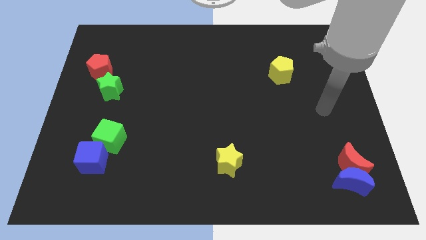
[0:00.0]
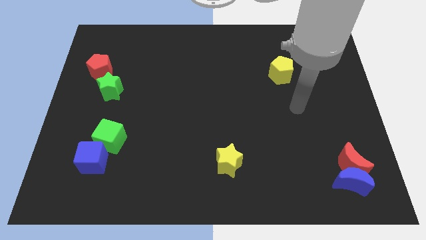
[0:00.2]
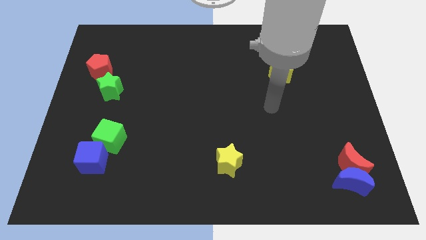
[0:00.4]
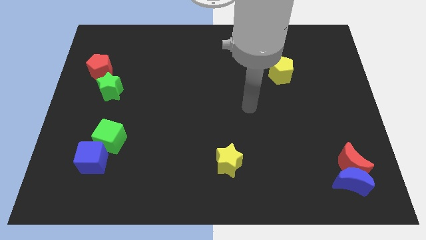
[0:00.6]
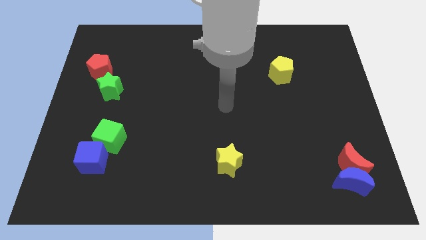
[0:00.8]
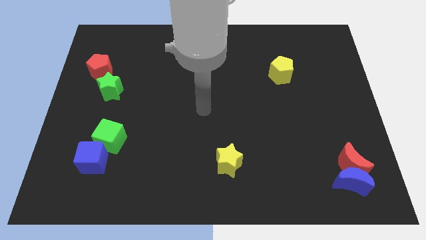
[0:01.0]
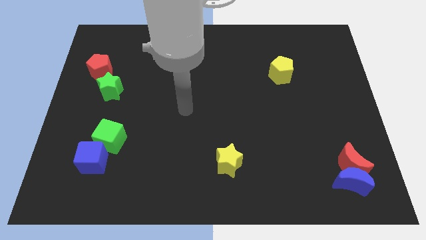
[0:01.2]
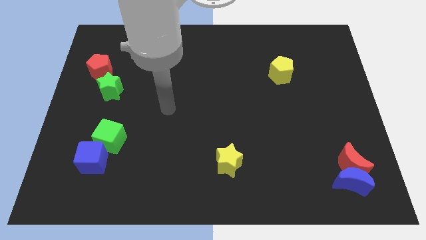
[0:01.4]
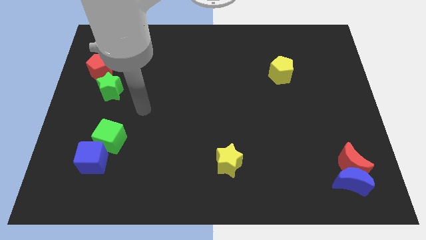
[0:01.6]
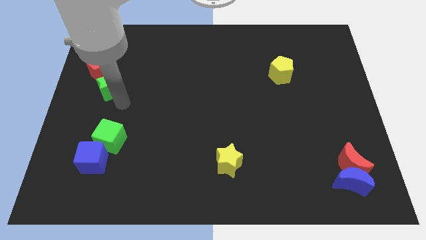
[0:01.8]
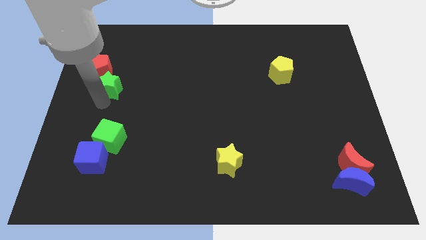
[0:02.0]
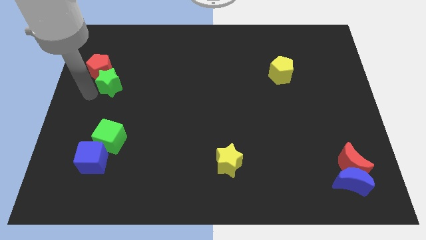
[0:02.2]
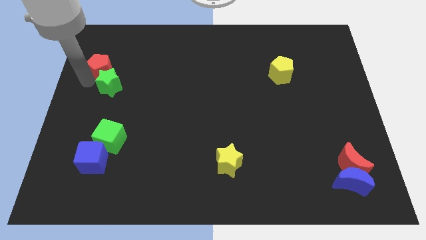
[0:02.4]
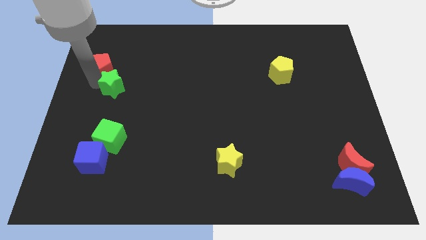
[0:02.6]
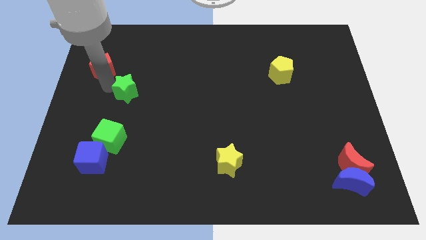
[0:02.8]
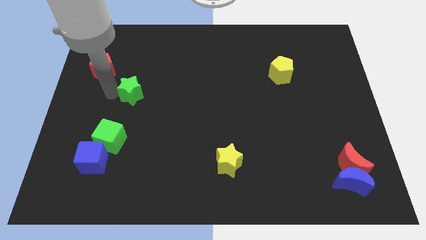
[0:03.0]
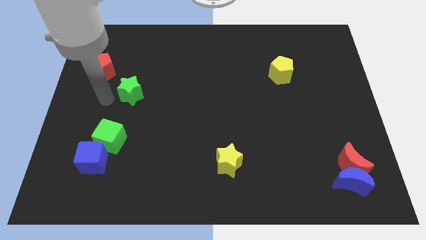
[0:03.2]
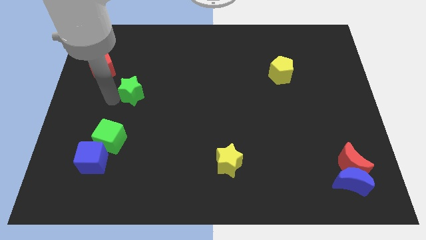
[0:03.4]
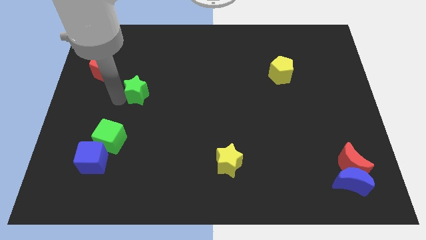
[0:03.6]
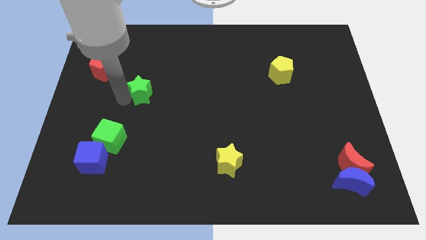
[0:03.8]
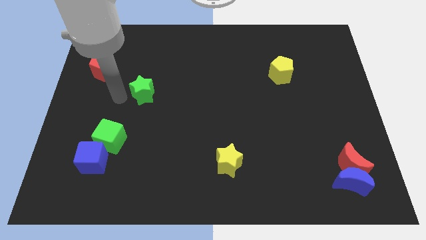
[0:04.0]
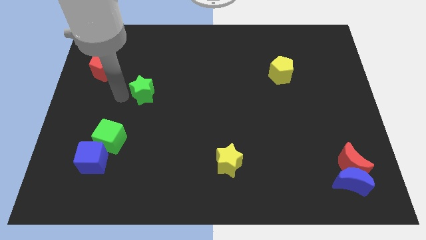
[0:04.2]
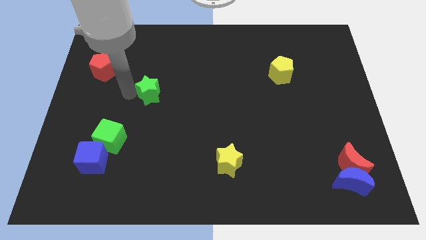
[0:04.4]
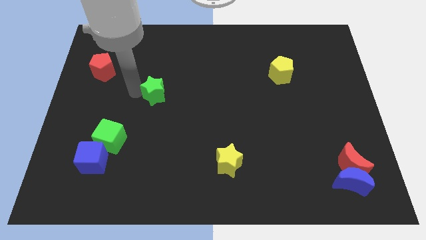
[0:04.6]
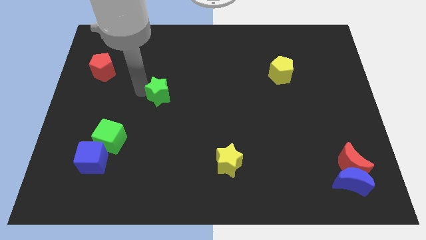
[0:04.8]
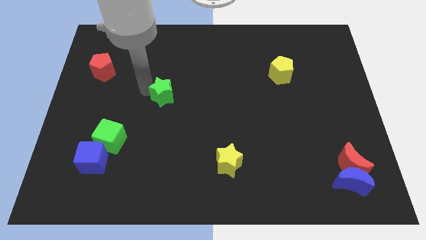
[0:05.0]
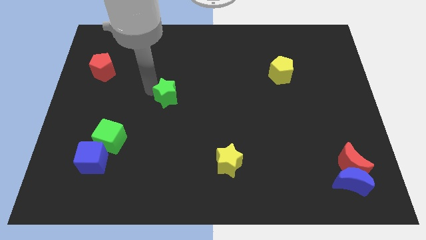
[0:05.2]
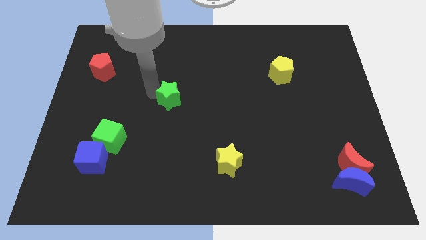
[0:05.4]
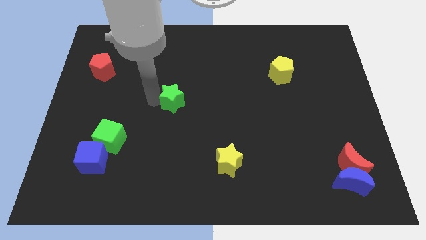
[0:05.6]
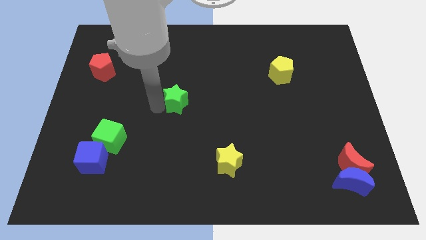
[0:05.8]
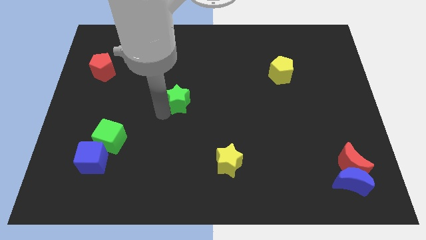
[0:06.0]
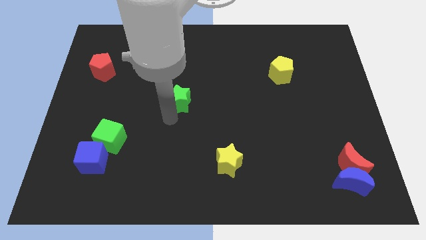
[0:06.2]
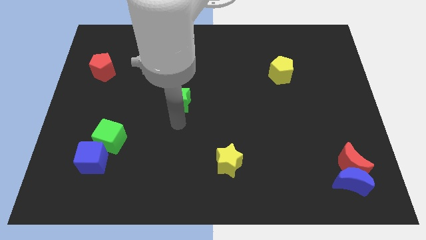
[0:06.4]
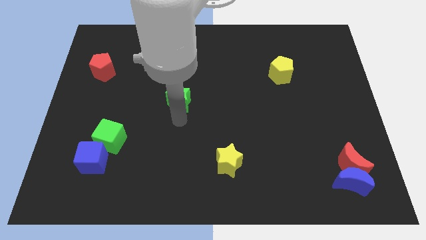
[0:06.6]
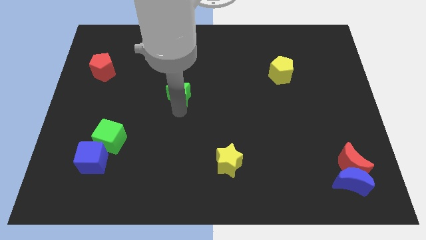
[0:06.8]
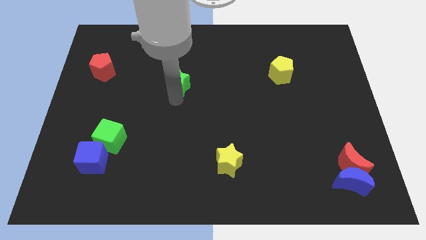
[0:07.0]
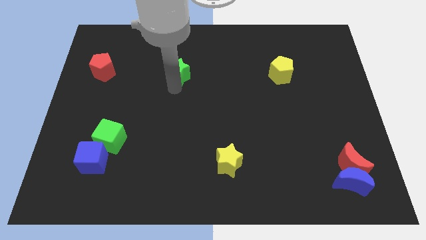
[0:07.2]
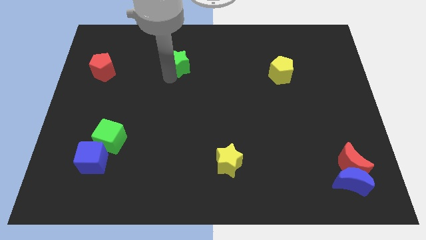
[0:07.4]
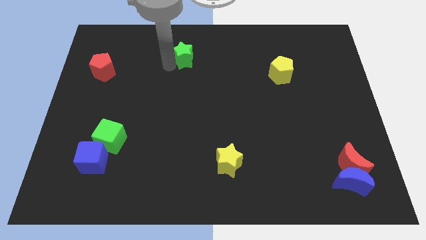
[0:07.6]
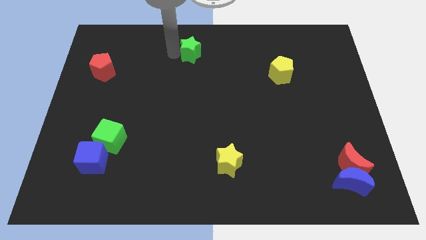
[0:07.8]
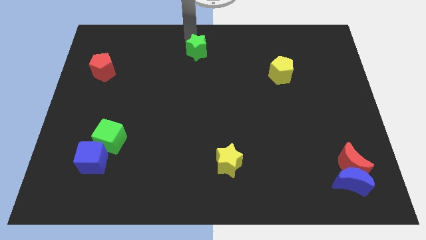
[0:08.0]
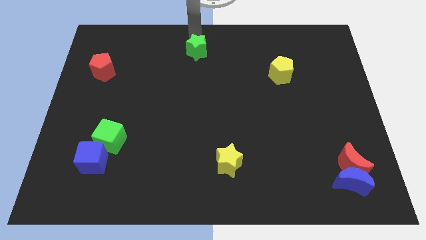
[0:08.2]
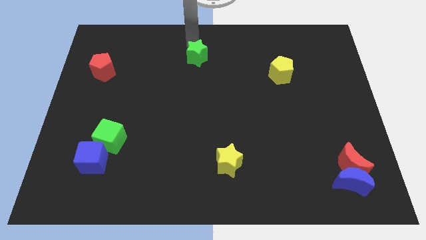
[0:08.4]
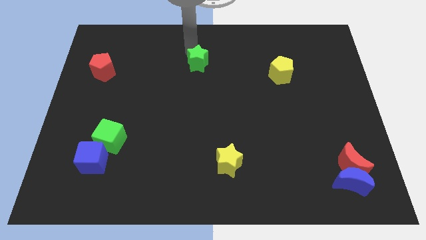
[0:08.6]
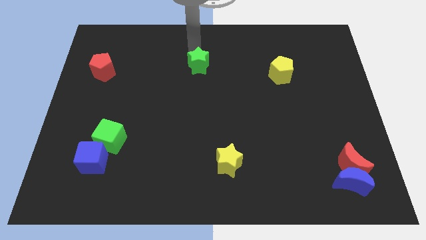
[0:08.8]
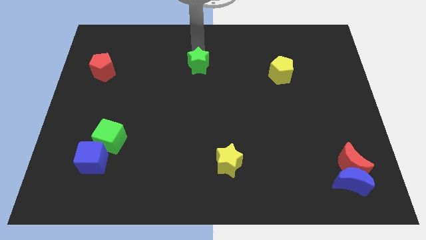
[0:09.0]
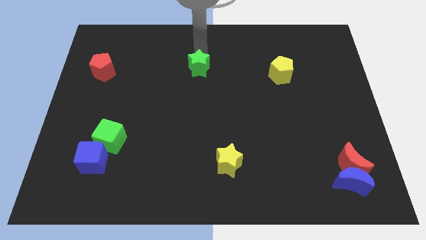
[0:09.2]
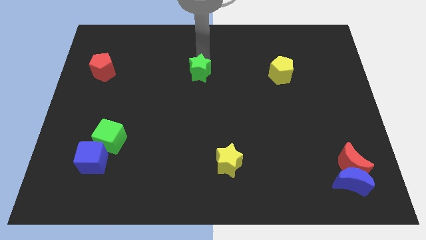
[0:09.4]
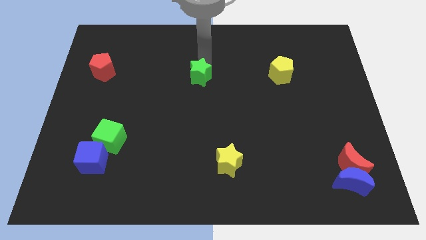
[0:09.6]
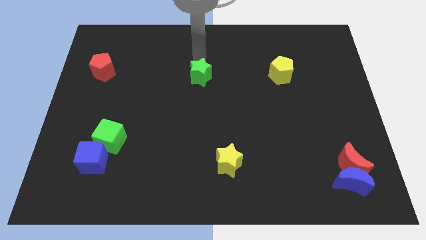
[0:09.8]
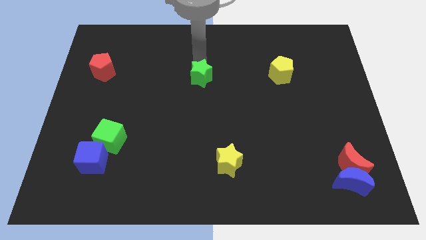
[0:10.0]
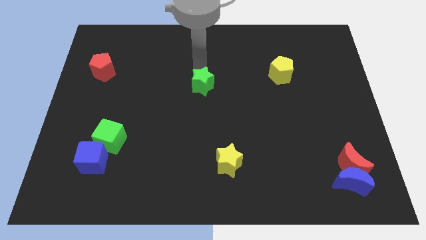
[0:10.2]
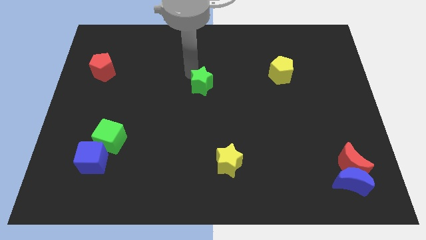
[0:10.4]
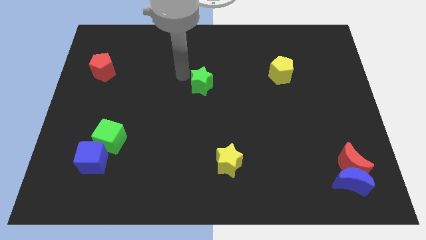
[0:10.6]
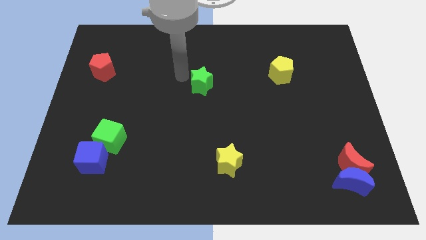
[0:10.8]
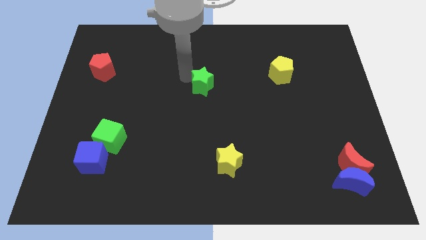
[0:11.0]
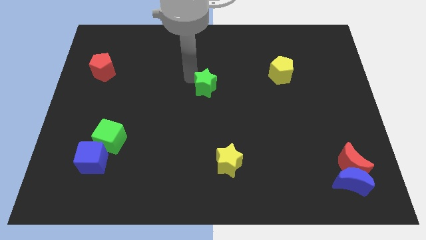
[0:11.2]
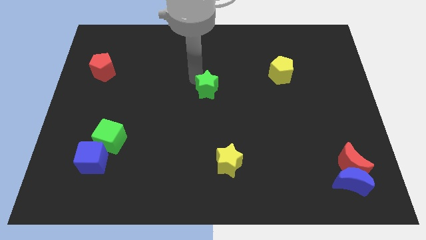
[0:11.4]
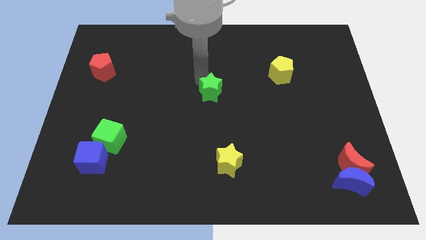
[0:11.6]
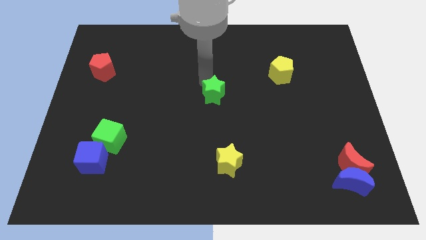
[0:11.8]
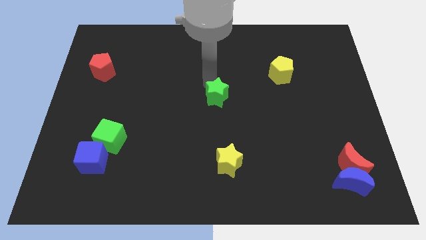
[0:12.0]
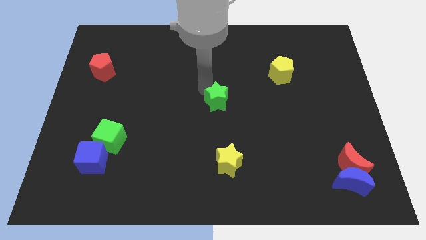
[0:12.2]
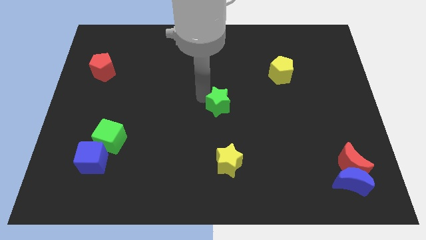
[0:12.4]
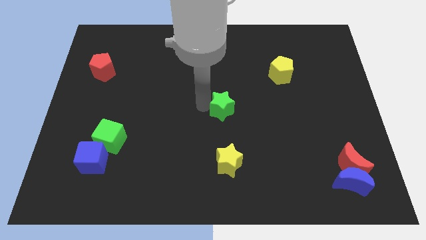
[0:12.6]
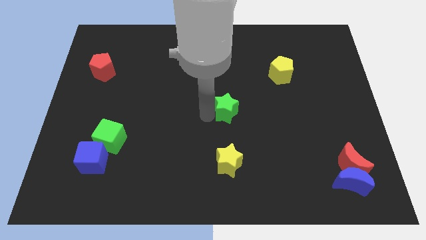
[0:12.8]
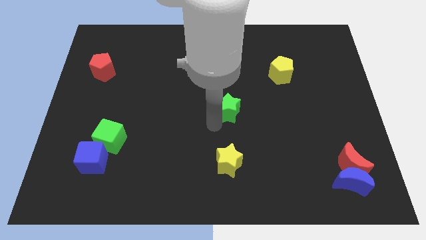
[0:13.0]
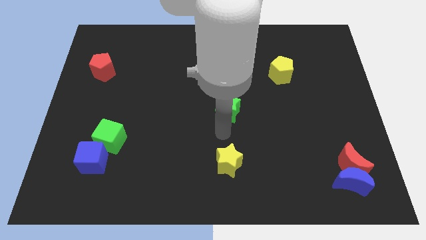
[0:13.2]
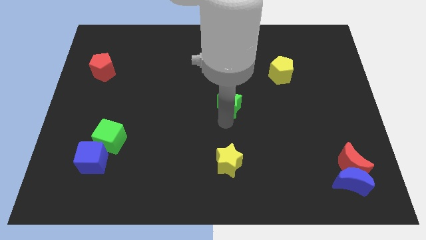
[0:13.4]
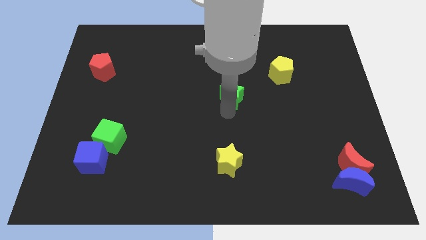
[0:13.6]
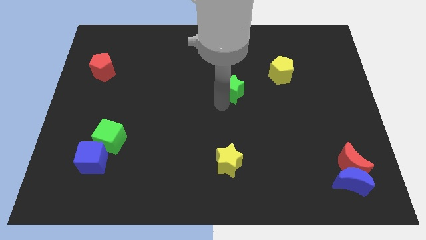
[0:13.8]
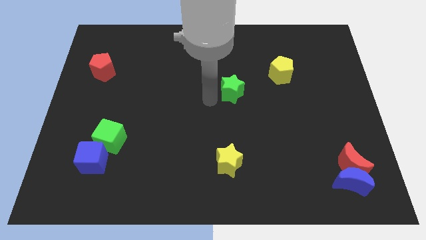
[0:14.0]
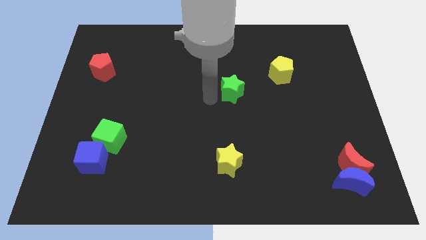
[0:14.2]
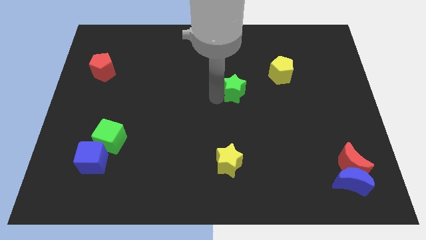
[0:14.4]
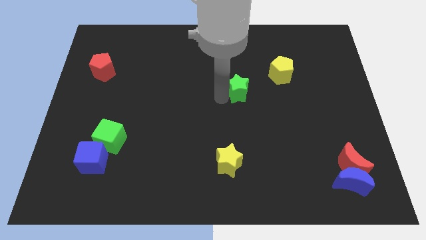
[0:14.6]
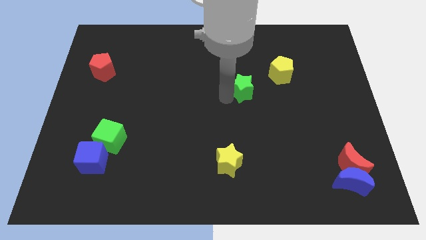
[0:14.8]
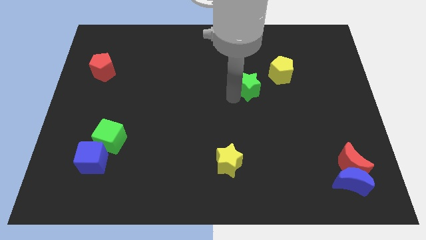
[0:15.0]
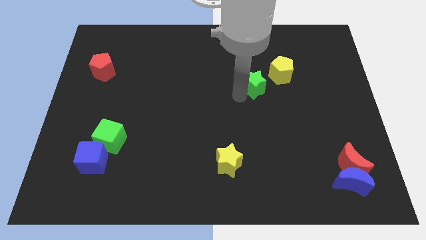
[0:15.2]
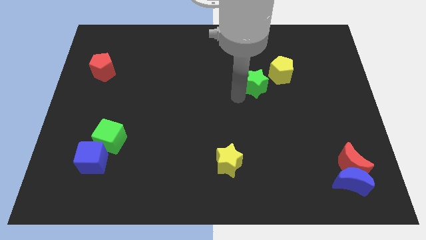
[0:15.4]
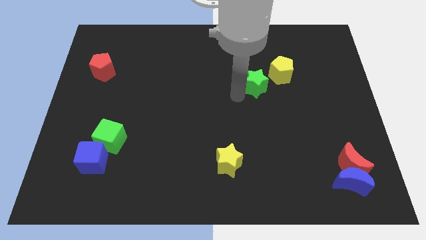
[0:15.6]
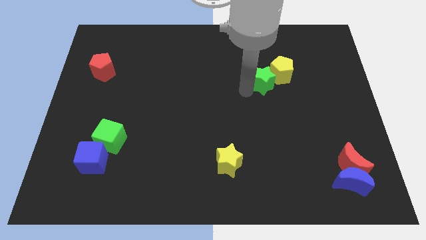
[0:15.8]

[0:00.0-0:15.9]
push the green star close to the yellow pentagon

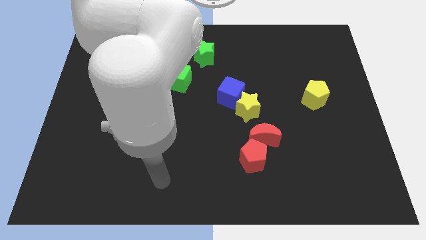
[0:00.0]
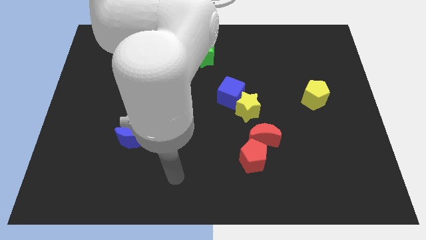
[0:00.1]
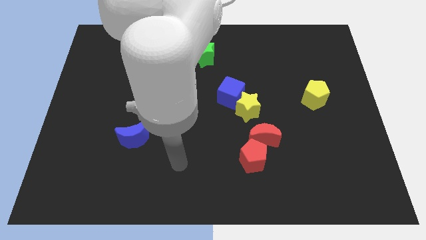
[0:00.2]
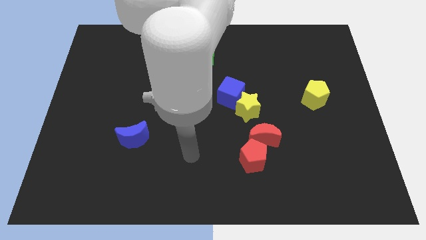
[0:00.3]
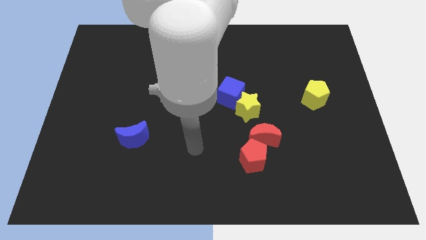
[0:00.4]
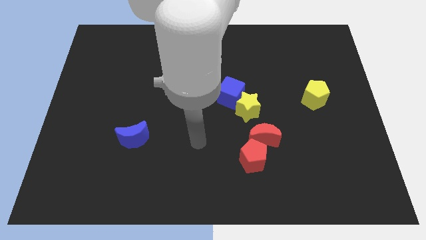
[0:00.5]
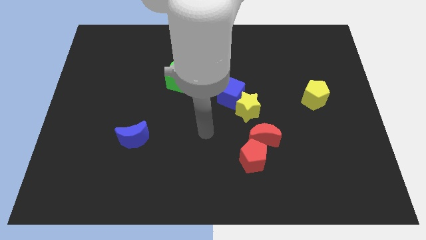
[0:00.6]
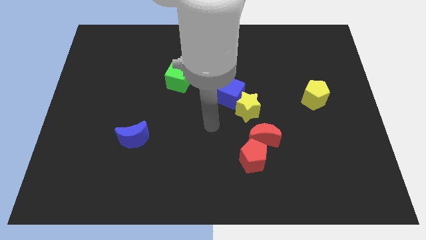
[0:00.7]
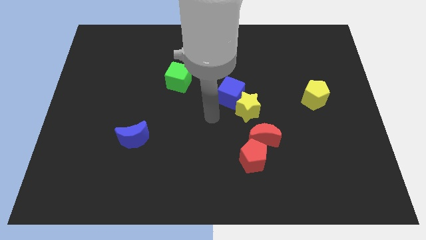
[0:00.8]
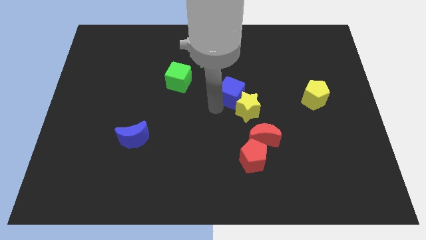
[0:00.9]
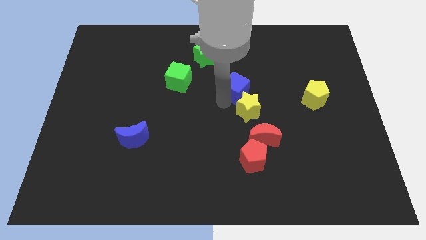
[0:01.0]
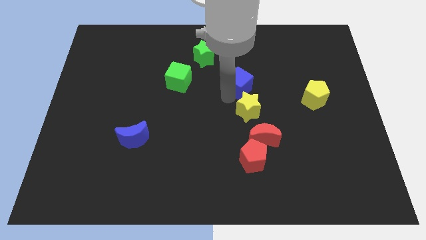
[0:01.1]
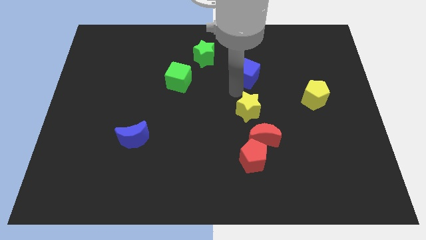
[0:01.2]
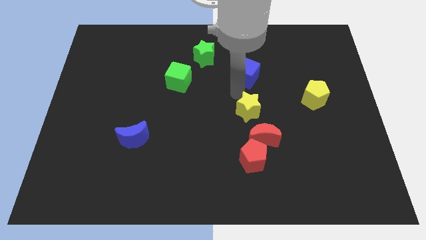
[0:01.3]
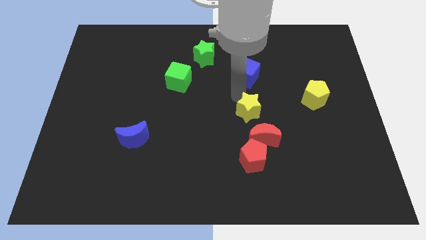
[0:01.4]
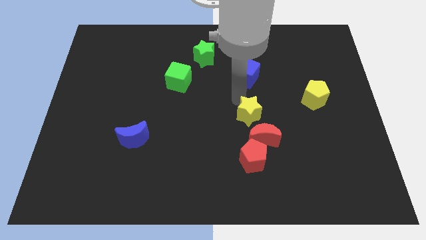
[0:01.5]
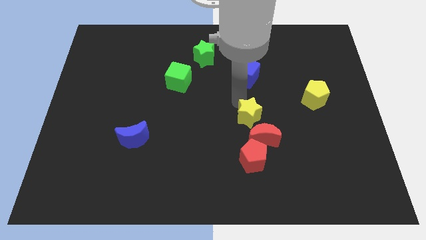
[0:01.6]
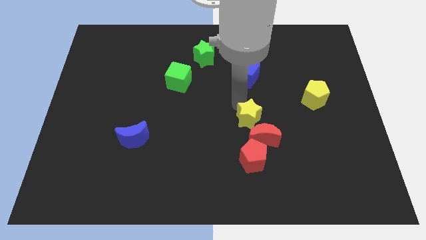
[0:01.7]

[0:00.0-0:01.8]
move the yellow star next to the red moon
